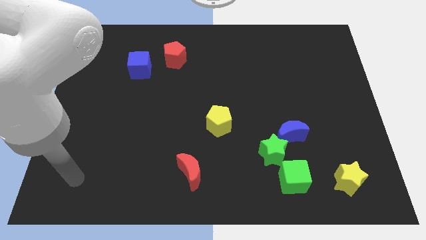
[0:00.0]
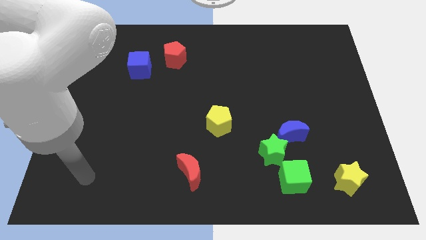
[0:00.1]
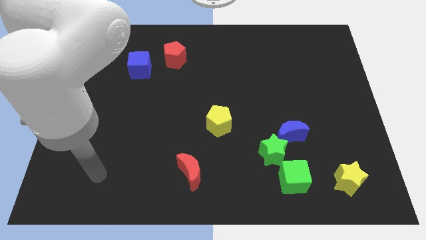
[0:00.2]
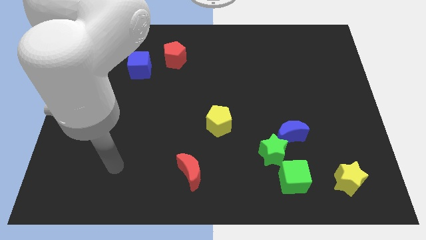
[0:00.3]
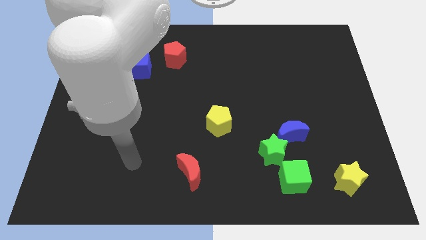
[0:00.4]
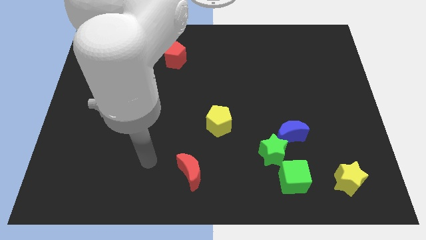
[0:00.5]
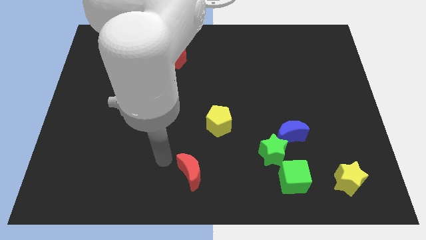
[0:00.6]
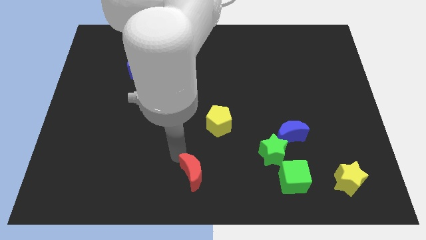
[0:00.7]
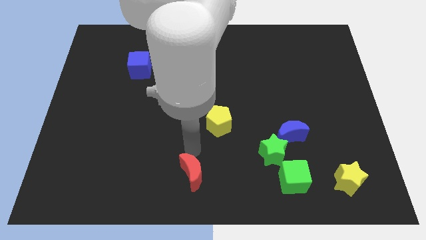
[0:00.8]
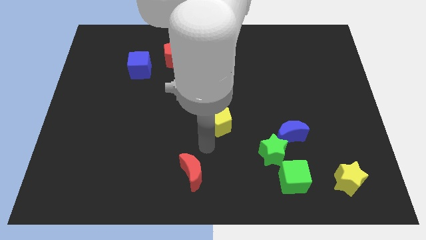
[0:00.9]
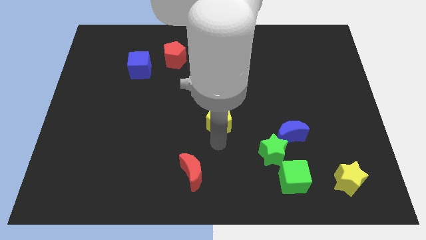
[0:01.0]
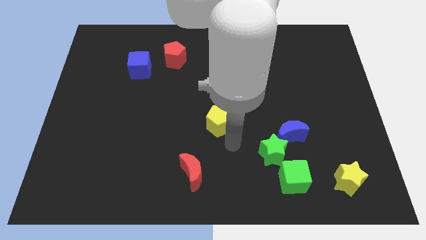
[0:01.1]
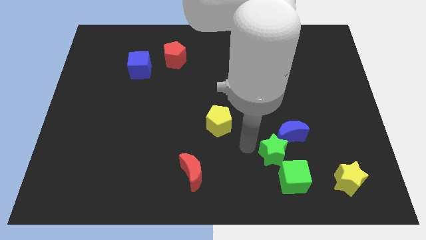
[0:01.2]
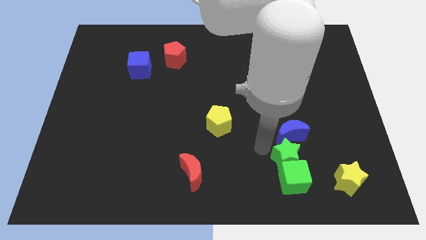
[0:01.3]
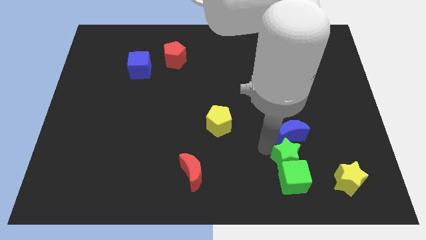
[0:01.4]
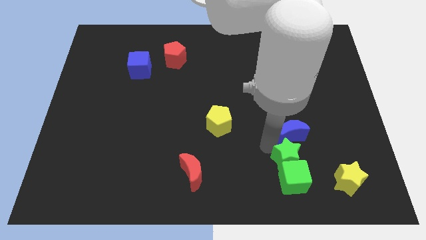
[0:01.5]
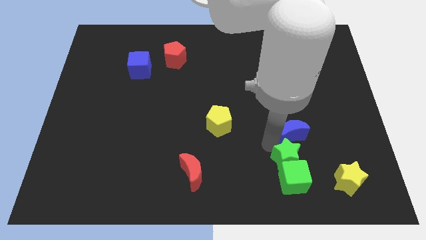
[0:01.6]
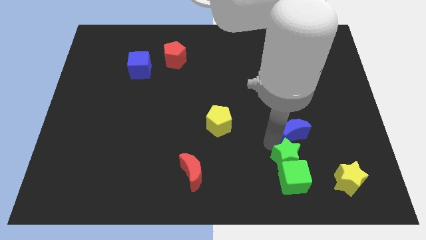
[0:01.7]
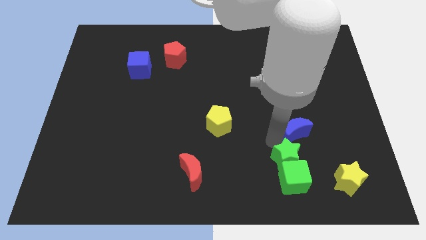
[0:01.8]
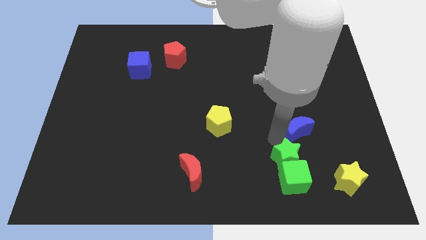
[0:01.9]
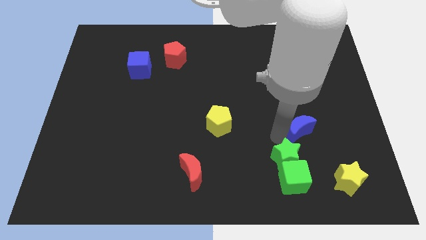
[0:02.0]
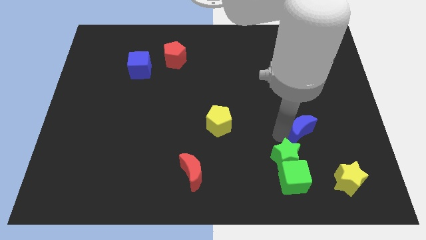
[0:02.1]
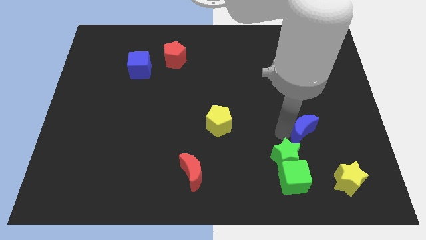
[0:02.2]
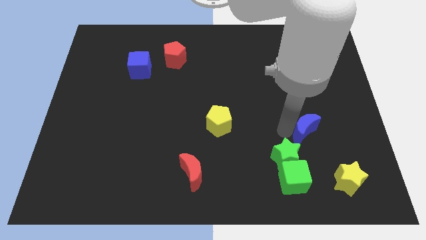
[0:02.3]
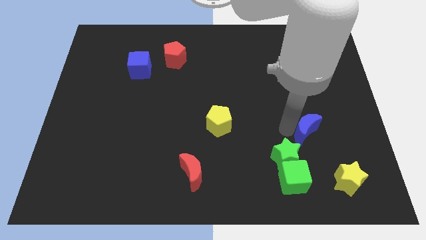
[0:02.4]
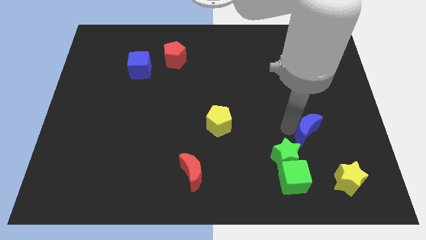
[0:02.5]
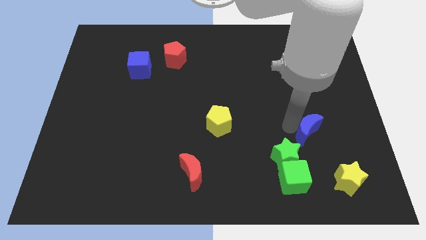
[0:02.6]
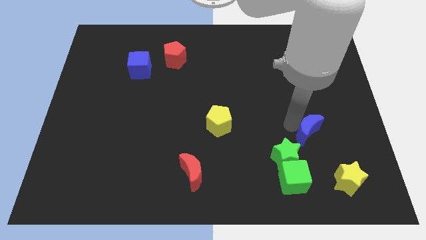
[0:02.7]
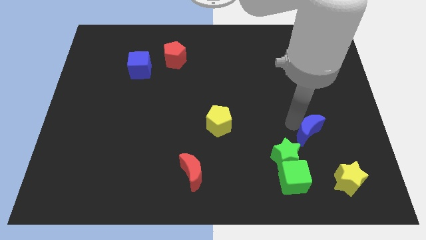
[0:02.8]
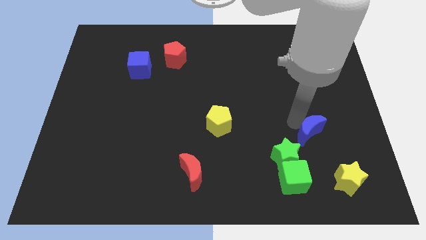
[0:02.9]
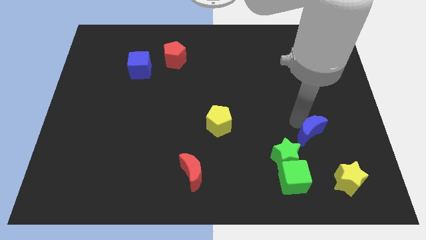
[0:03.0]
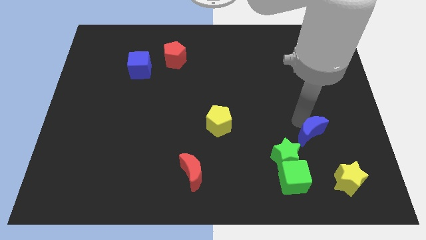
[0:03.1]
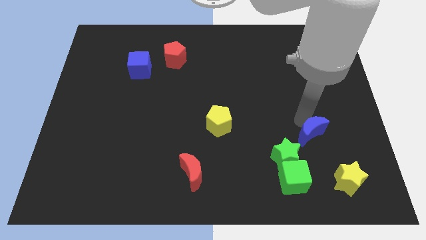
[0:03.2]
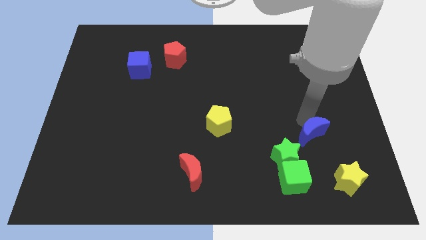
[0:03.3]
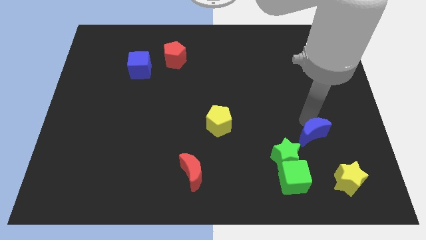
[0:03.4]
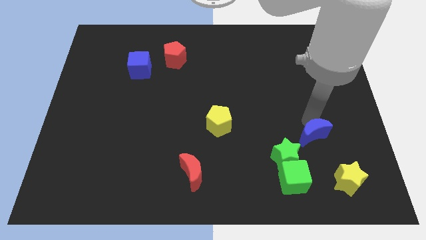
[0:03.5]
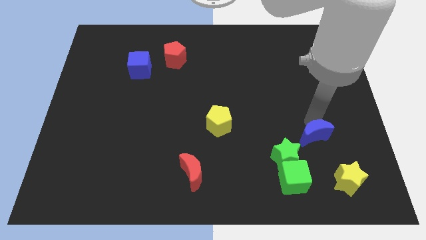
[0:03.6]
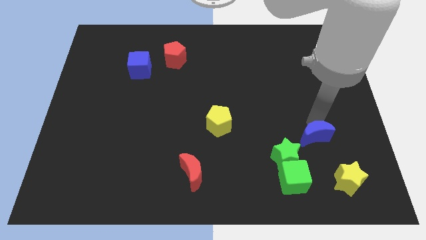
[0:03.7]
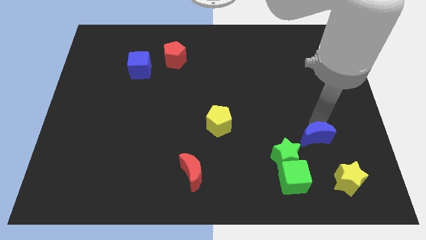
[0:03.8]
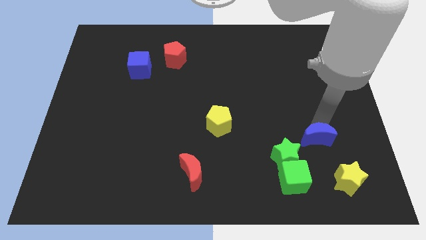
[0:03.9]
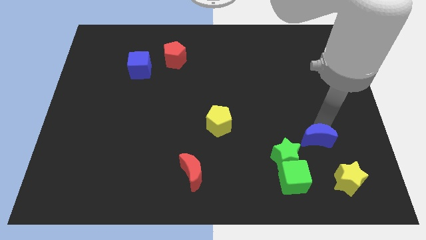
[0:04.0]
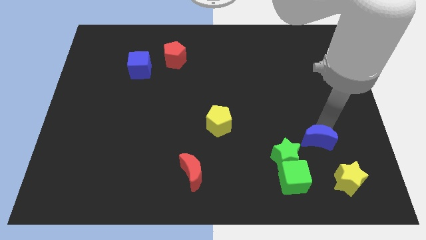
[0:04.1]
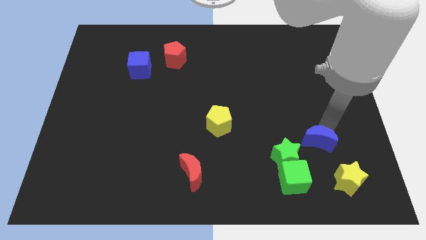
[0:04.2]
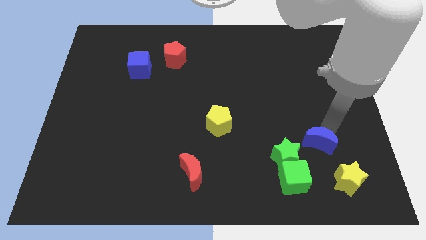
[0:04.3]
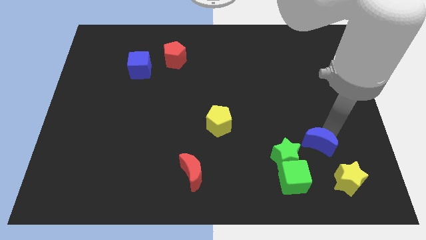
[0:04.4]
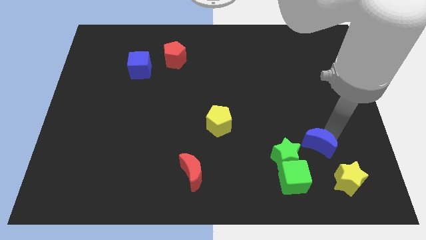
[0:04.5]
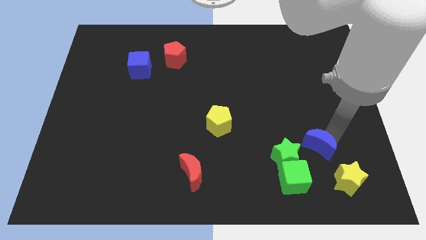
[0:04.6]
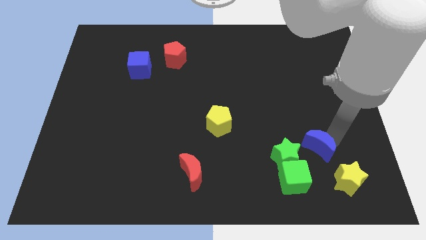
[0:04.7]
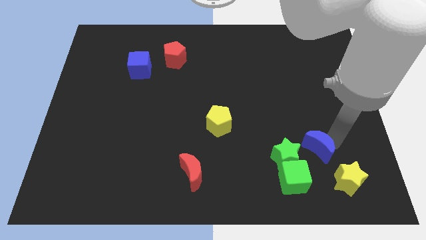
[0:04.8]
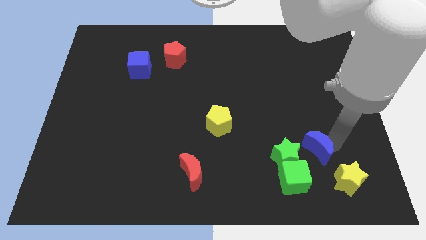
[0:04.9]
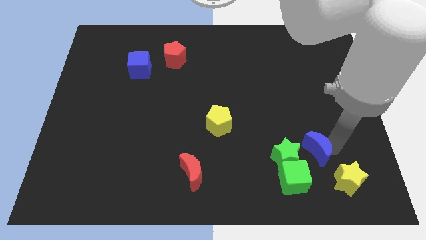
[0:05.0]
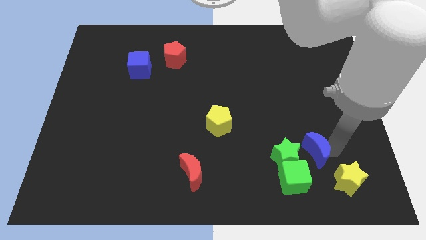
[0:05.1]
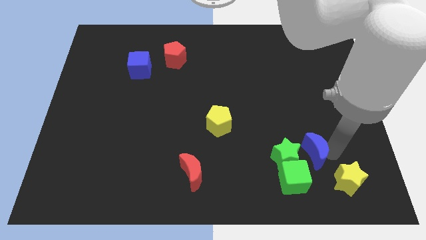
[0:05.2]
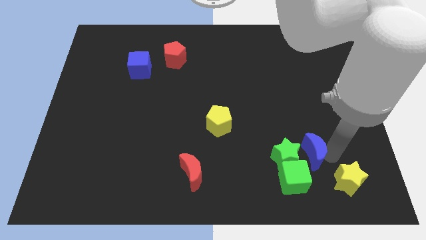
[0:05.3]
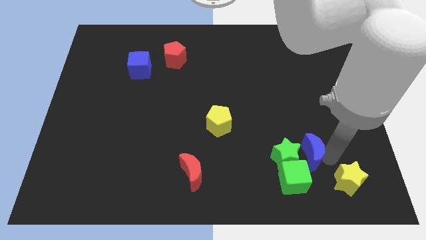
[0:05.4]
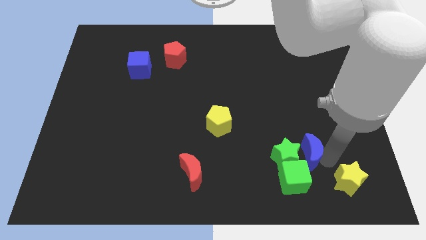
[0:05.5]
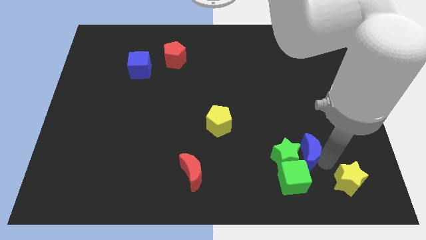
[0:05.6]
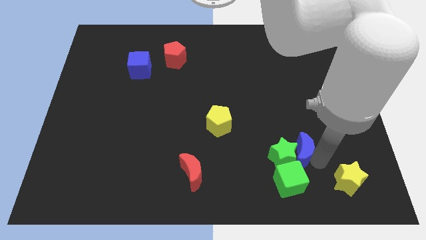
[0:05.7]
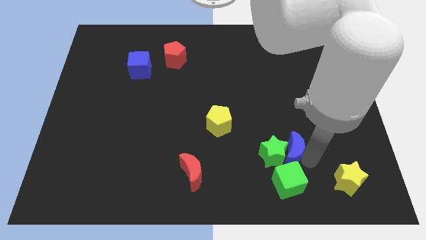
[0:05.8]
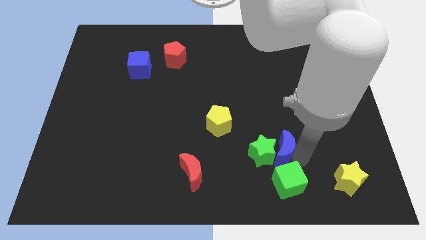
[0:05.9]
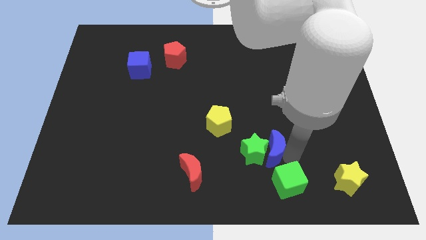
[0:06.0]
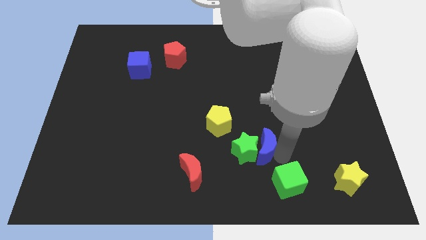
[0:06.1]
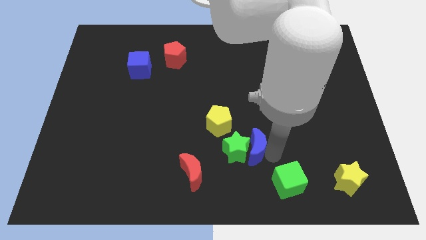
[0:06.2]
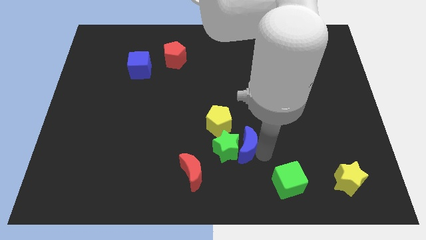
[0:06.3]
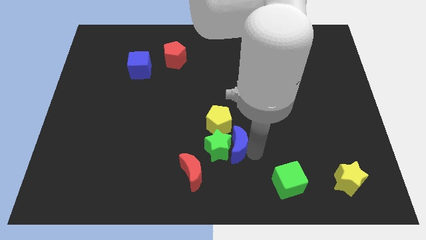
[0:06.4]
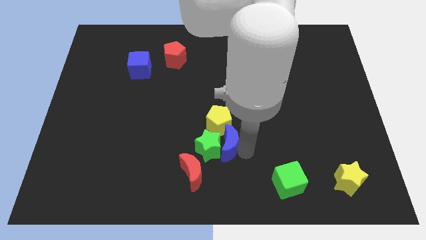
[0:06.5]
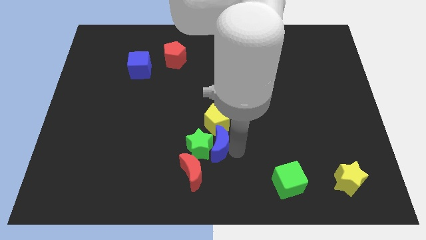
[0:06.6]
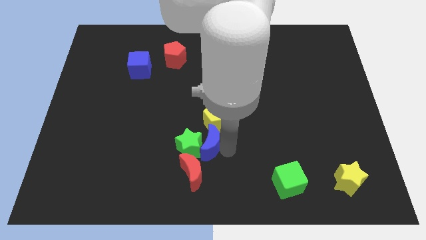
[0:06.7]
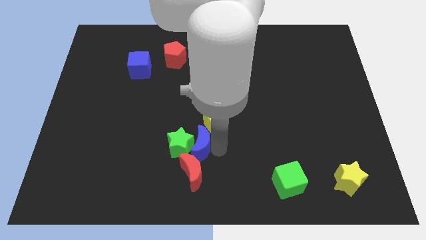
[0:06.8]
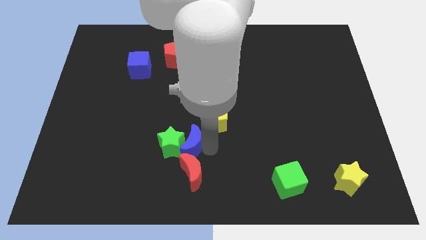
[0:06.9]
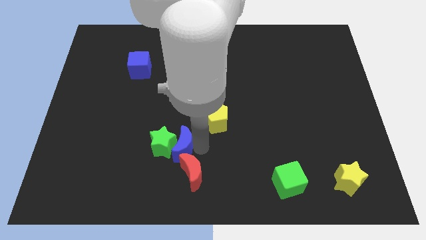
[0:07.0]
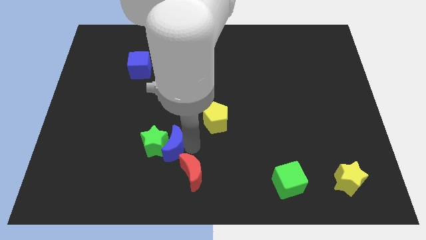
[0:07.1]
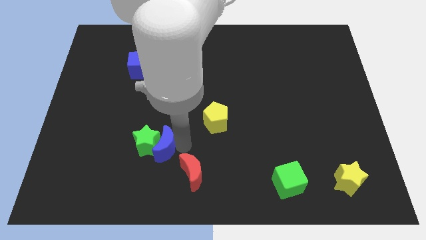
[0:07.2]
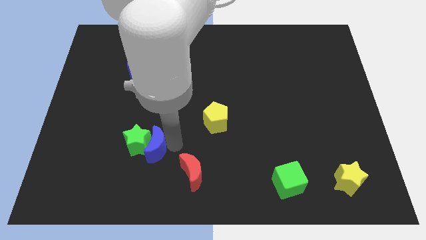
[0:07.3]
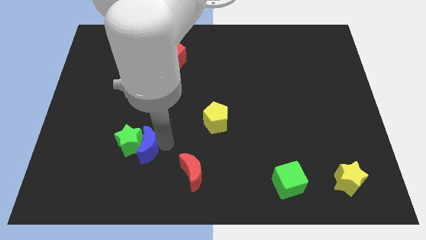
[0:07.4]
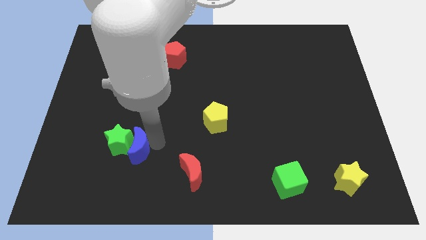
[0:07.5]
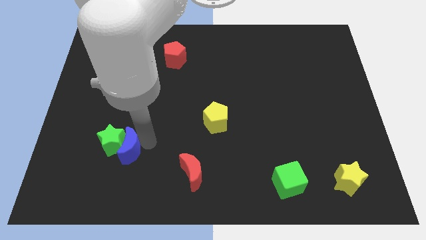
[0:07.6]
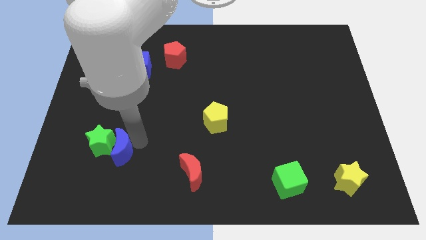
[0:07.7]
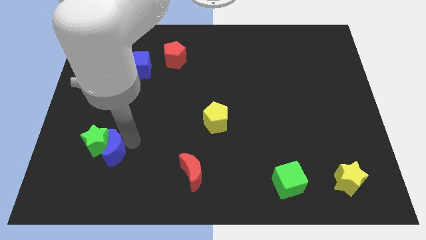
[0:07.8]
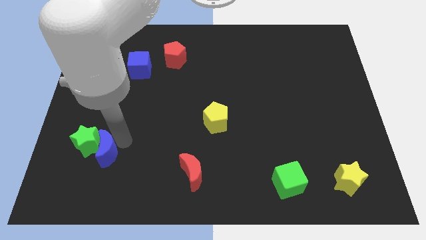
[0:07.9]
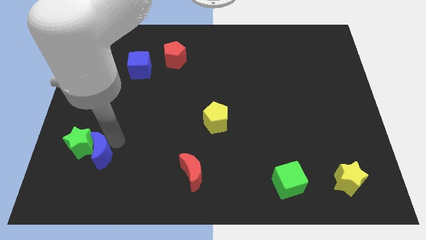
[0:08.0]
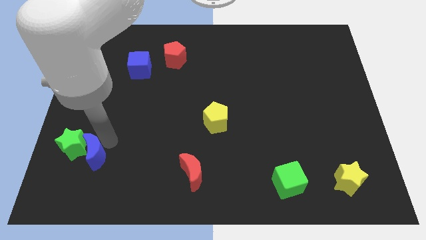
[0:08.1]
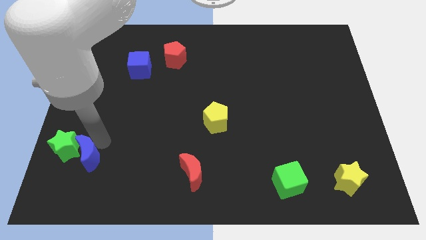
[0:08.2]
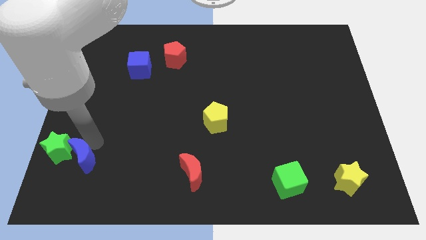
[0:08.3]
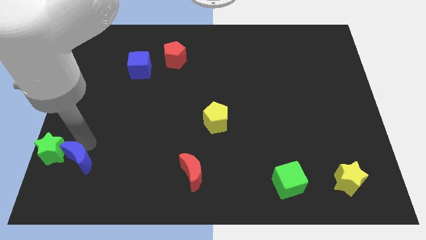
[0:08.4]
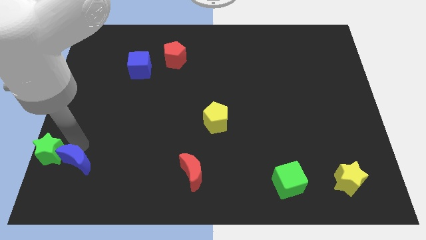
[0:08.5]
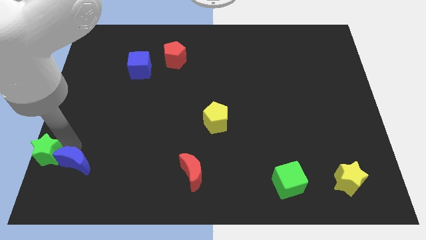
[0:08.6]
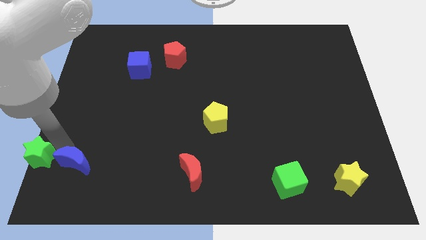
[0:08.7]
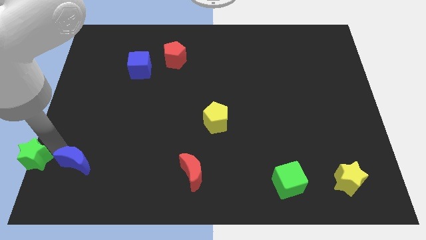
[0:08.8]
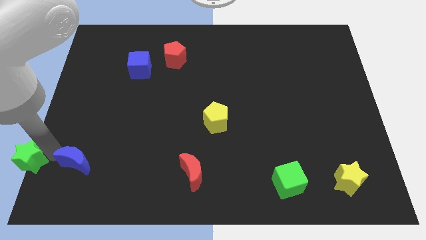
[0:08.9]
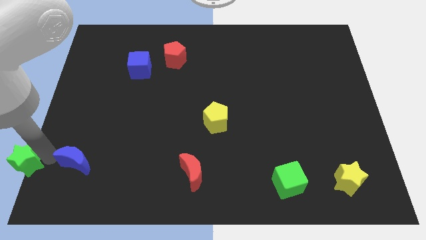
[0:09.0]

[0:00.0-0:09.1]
separate the blue moon from the green star

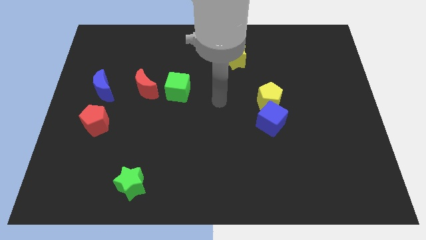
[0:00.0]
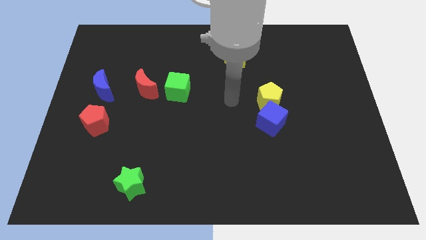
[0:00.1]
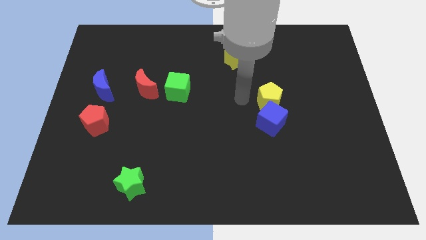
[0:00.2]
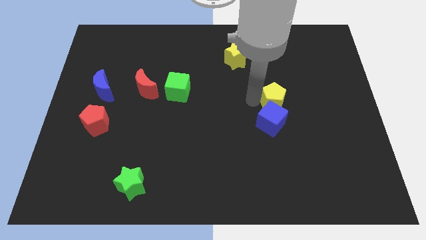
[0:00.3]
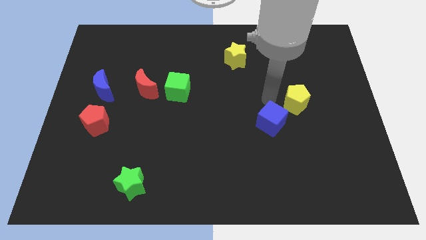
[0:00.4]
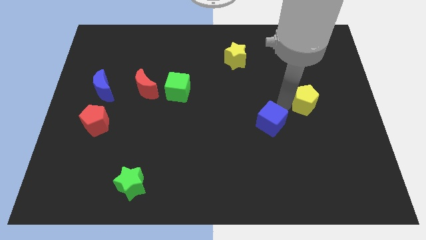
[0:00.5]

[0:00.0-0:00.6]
move the blue cube away from the yellow pentagon
